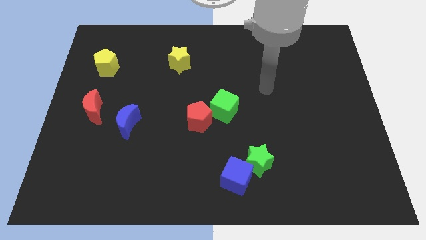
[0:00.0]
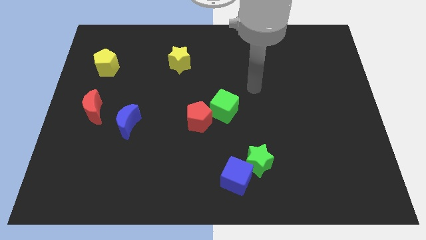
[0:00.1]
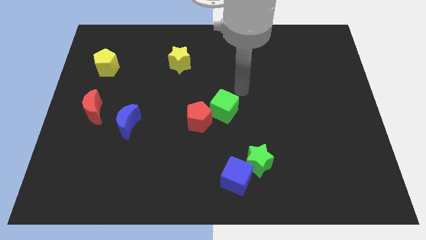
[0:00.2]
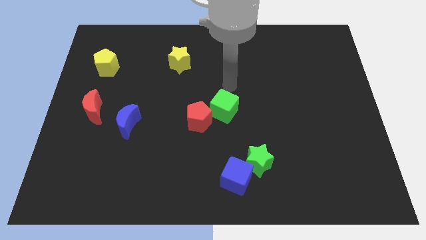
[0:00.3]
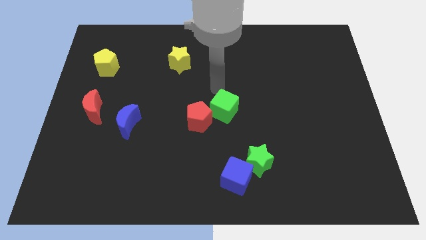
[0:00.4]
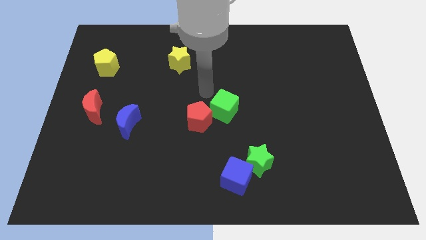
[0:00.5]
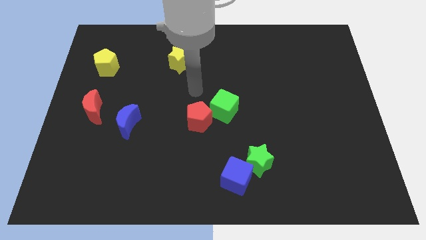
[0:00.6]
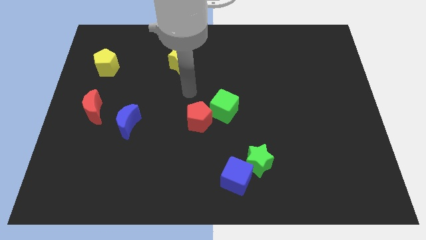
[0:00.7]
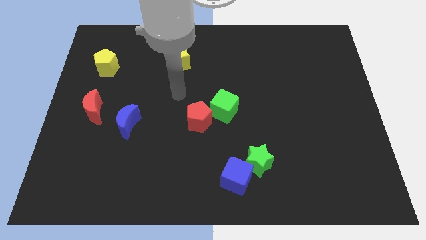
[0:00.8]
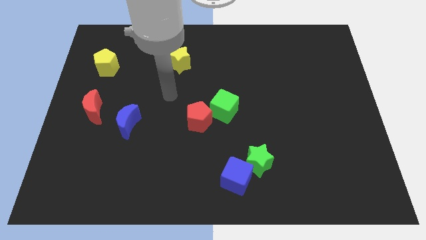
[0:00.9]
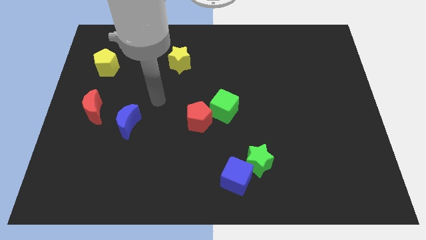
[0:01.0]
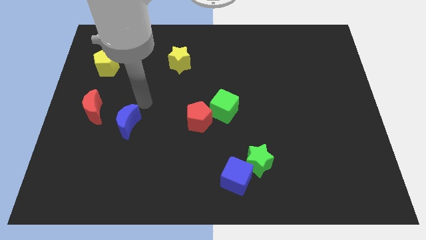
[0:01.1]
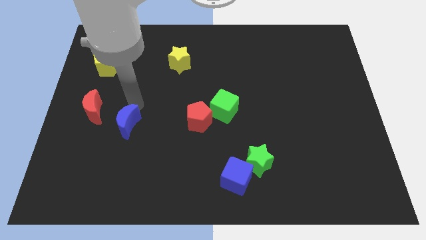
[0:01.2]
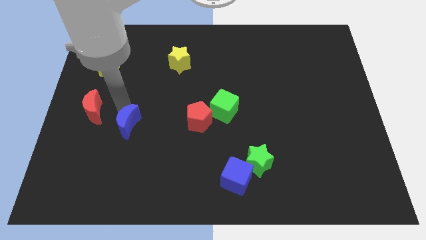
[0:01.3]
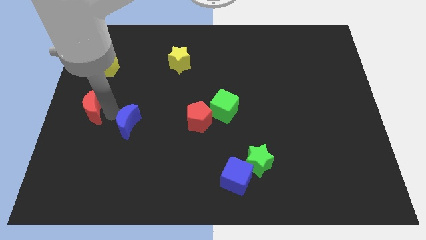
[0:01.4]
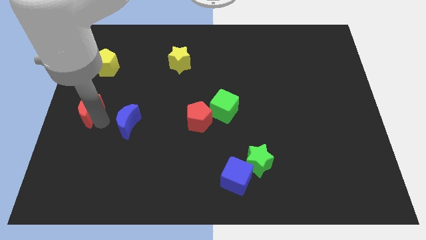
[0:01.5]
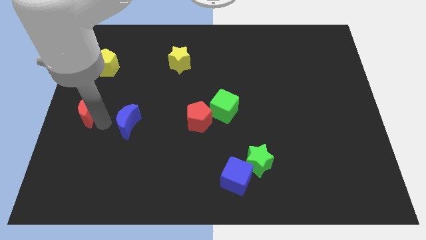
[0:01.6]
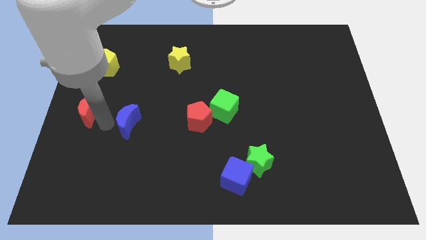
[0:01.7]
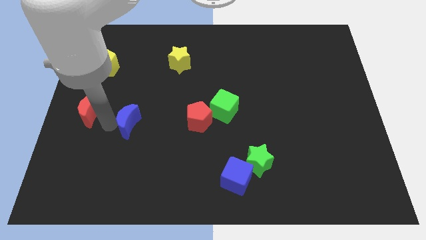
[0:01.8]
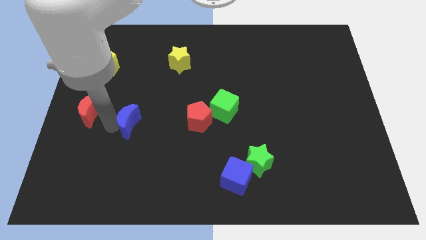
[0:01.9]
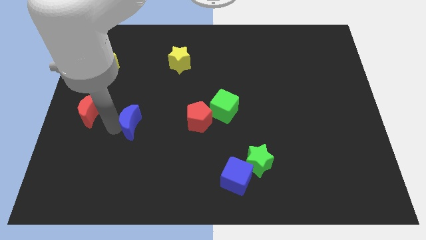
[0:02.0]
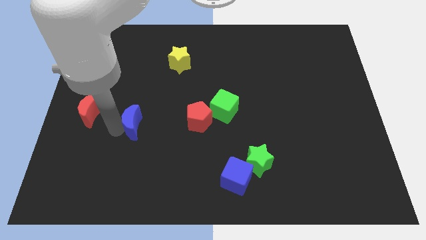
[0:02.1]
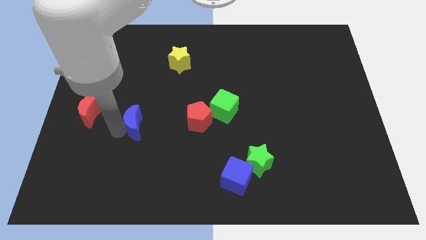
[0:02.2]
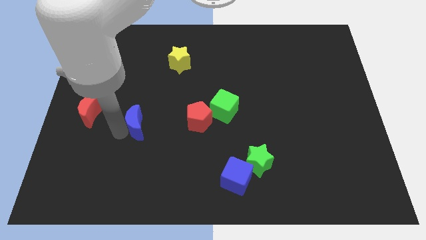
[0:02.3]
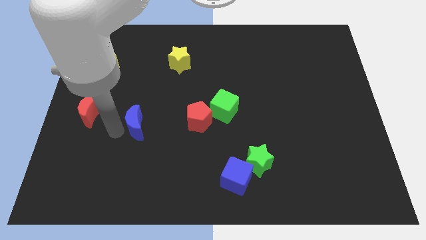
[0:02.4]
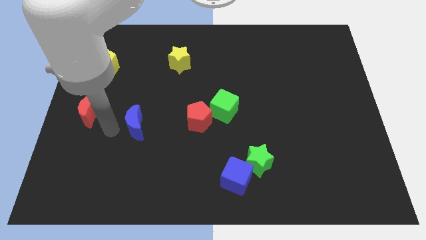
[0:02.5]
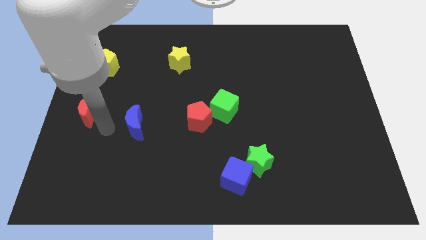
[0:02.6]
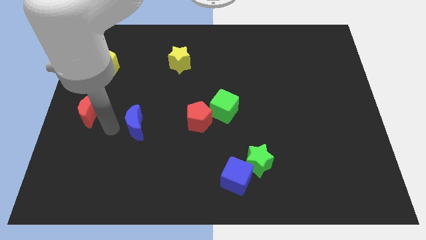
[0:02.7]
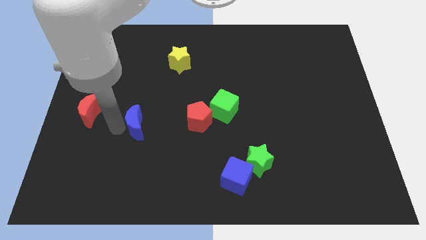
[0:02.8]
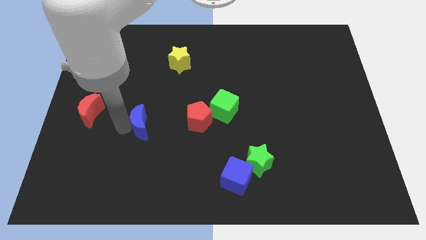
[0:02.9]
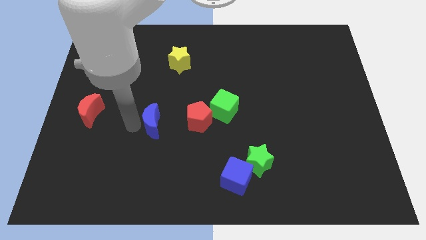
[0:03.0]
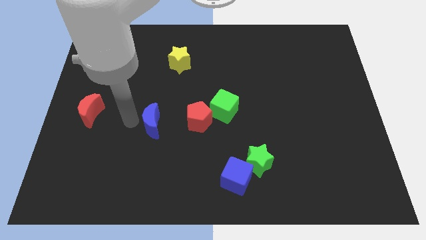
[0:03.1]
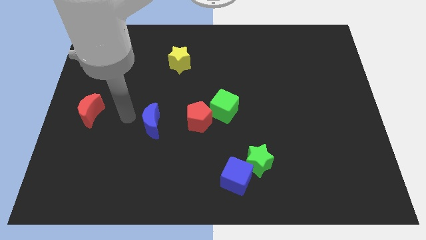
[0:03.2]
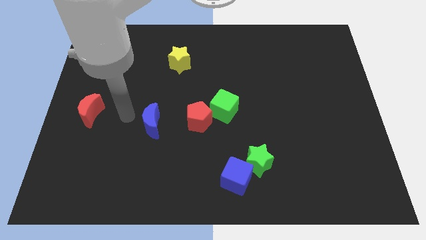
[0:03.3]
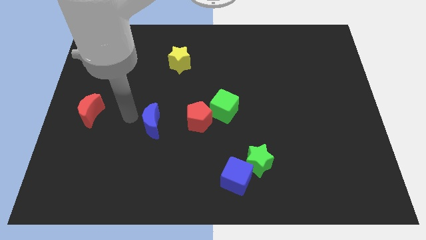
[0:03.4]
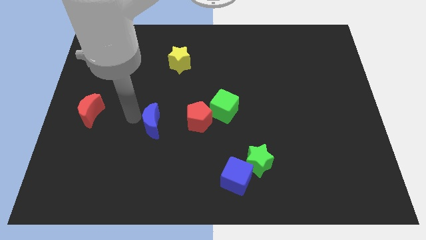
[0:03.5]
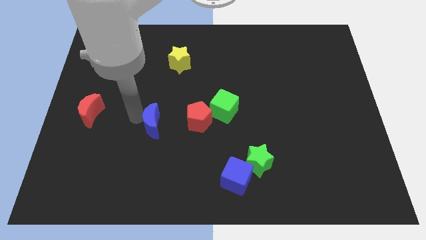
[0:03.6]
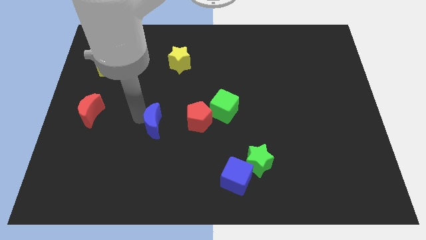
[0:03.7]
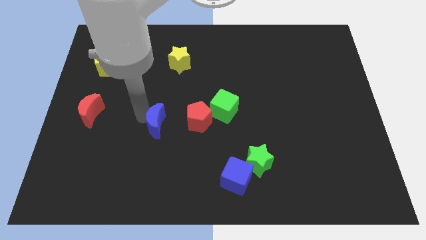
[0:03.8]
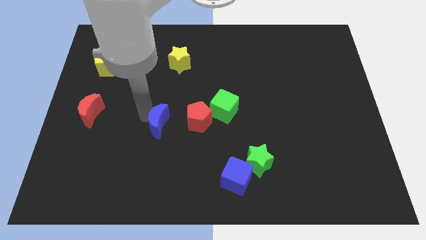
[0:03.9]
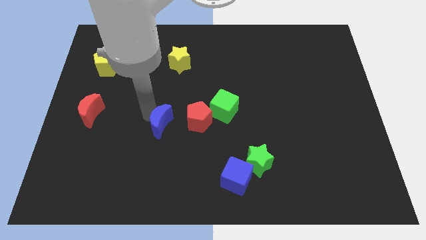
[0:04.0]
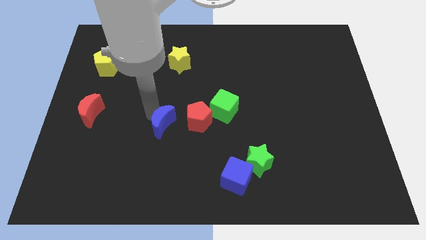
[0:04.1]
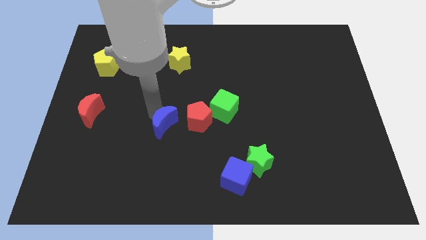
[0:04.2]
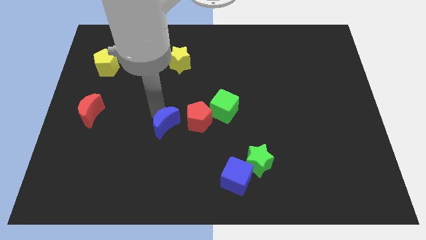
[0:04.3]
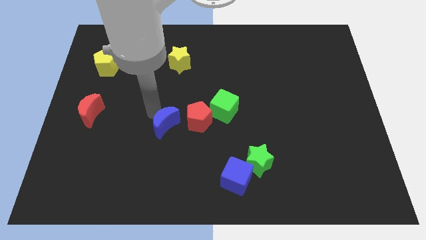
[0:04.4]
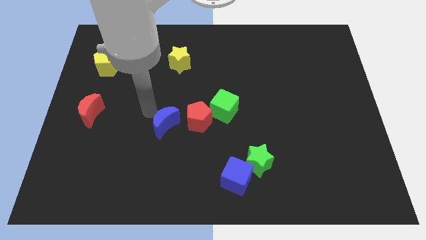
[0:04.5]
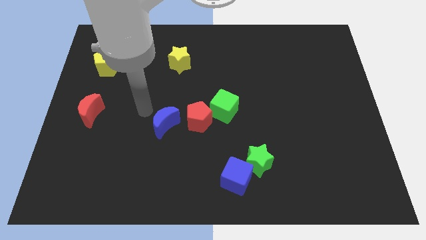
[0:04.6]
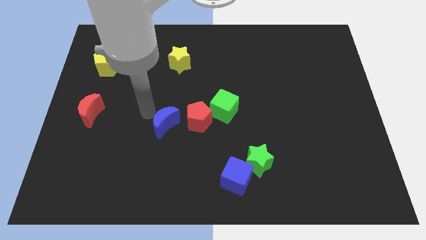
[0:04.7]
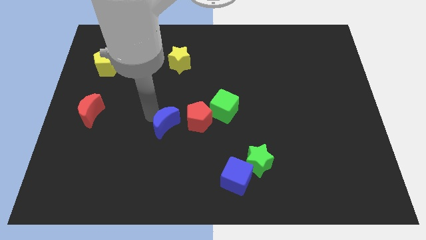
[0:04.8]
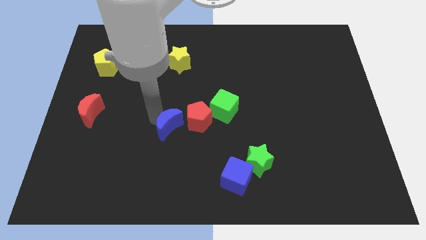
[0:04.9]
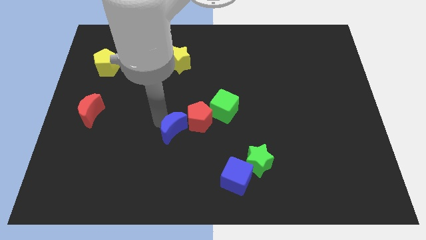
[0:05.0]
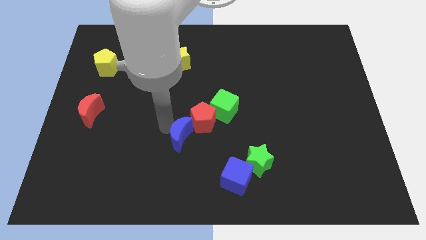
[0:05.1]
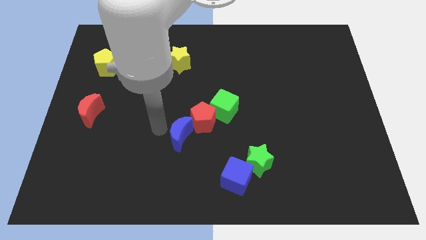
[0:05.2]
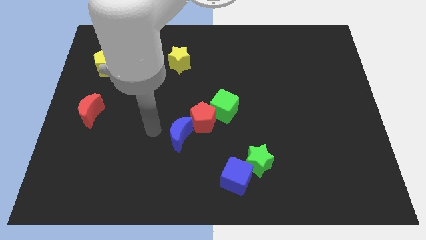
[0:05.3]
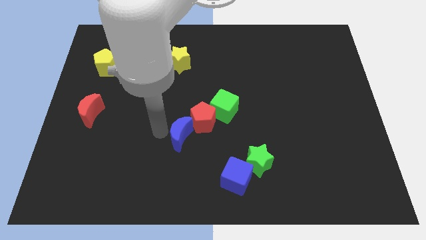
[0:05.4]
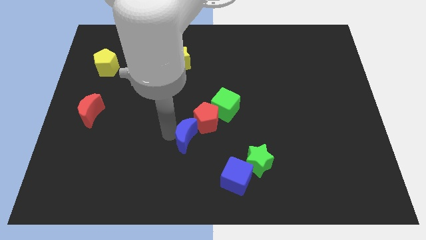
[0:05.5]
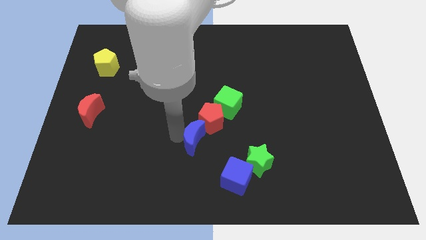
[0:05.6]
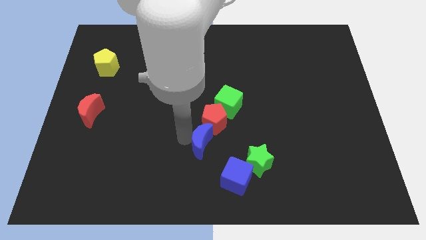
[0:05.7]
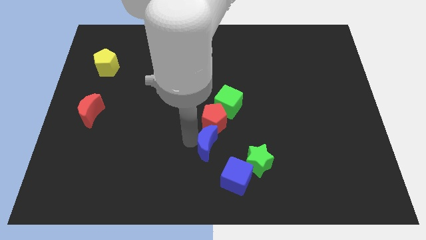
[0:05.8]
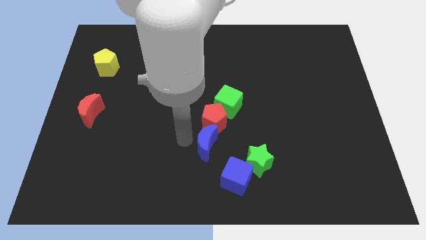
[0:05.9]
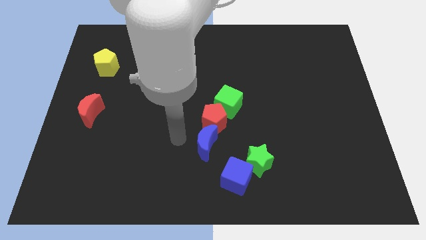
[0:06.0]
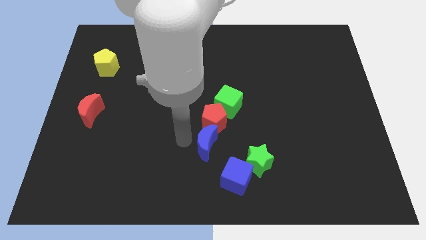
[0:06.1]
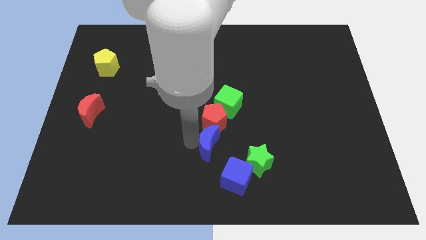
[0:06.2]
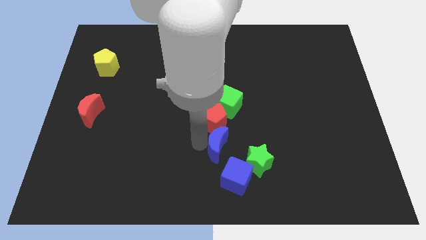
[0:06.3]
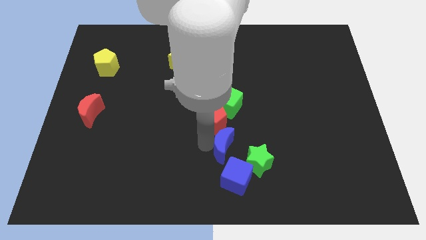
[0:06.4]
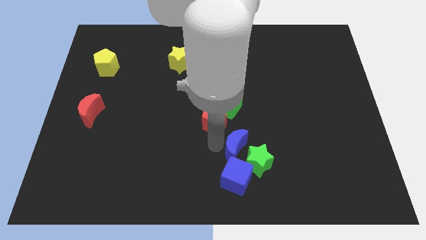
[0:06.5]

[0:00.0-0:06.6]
put the blue moon towards the green star

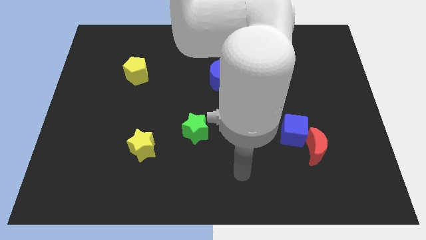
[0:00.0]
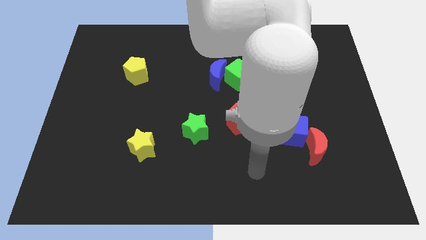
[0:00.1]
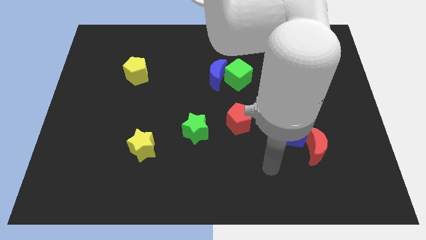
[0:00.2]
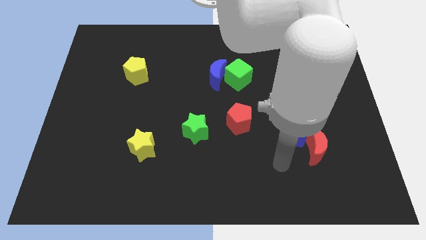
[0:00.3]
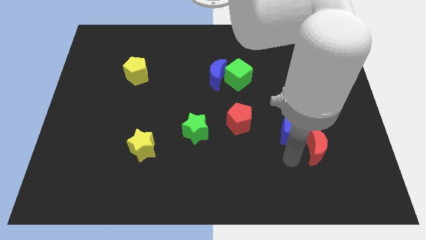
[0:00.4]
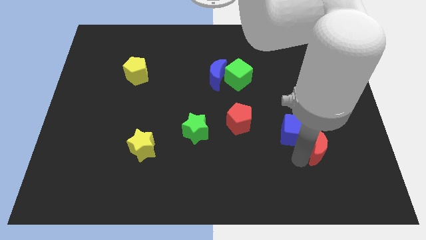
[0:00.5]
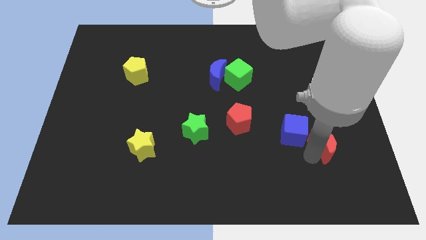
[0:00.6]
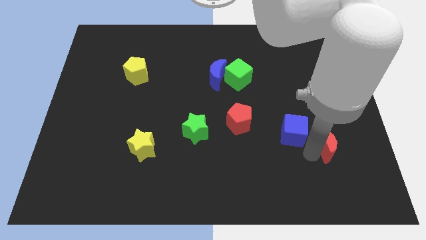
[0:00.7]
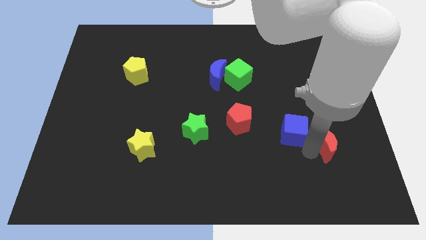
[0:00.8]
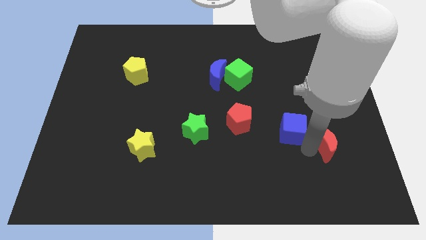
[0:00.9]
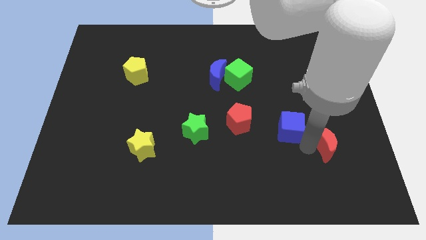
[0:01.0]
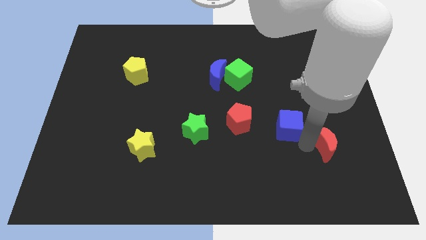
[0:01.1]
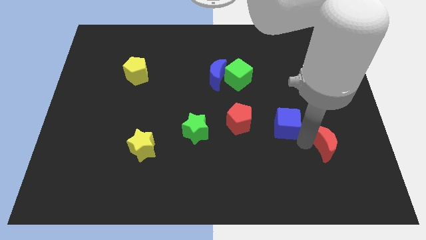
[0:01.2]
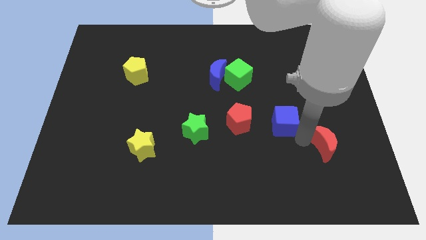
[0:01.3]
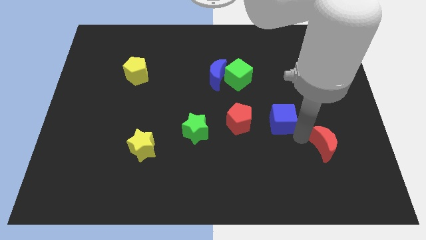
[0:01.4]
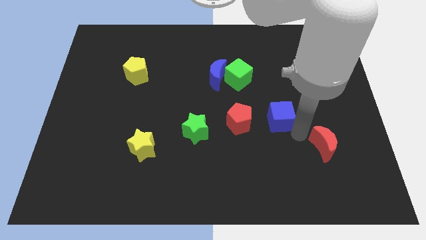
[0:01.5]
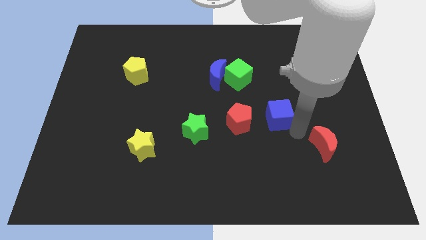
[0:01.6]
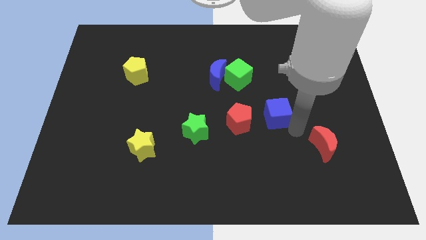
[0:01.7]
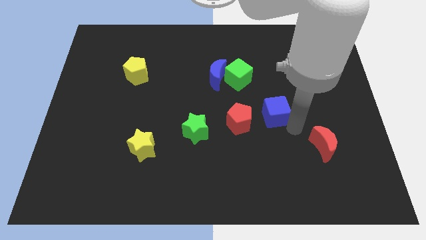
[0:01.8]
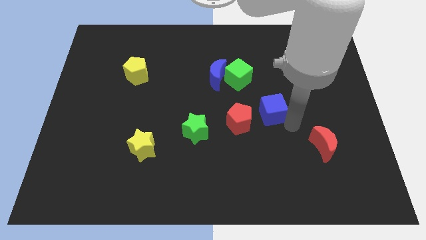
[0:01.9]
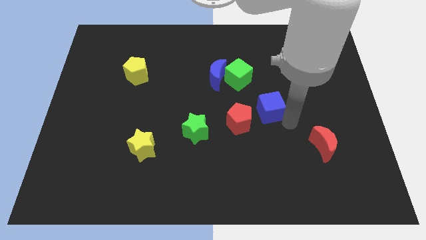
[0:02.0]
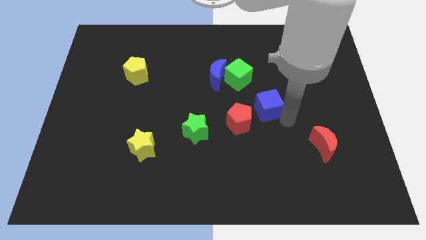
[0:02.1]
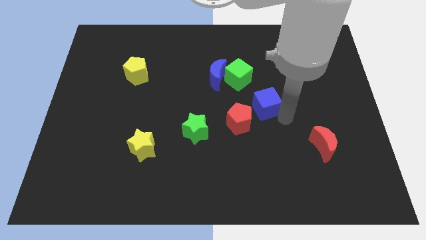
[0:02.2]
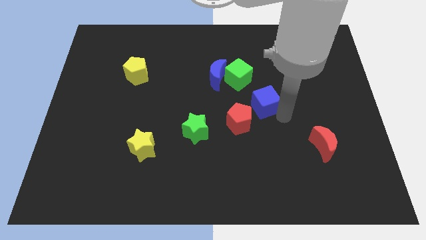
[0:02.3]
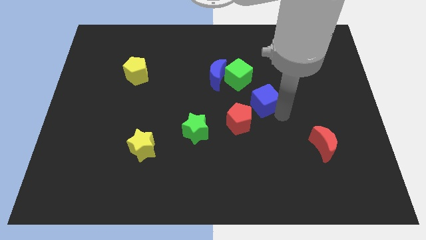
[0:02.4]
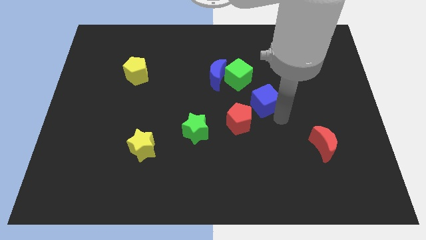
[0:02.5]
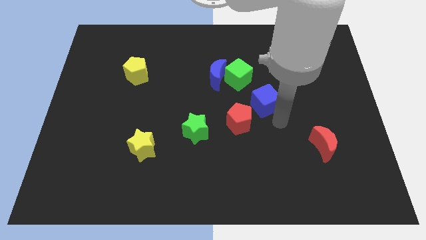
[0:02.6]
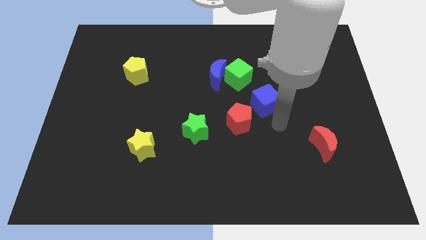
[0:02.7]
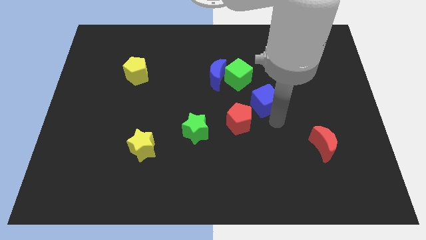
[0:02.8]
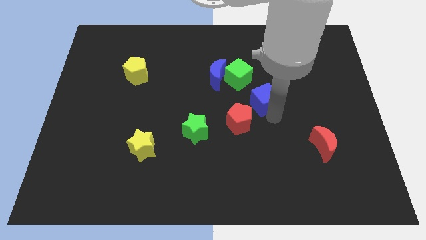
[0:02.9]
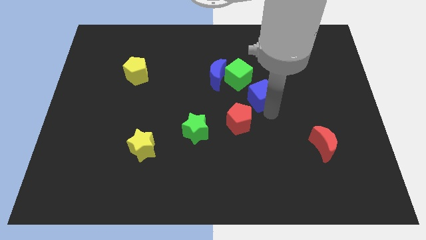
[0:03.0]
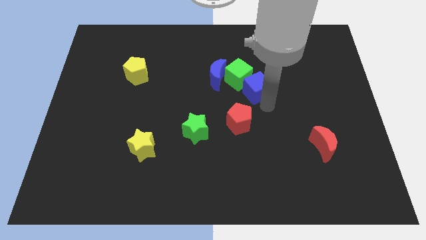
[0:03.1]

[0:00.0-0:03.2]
push the blue cube close to the green cube
